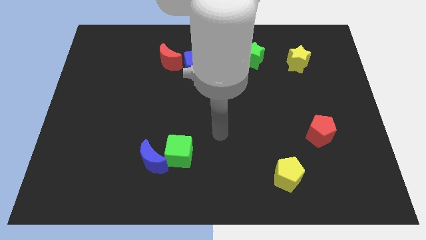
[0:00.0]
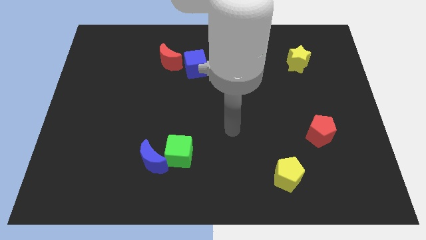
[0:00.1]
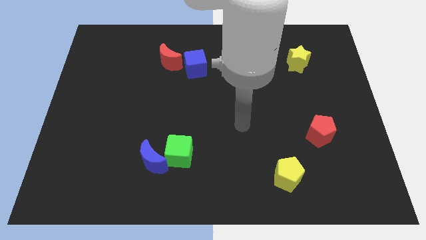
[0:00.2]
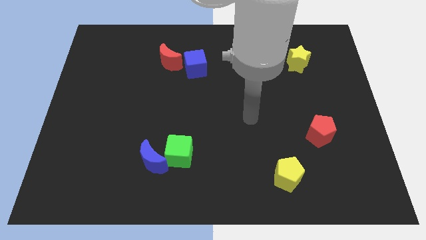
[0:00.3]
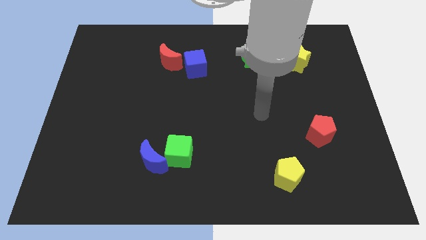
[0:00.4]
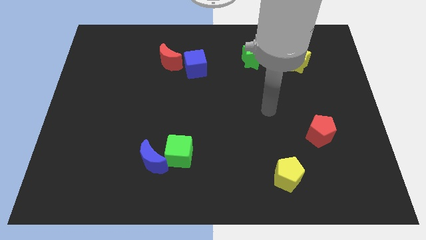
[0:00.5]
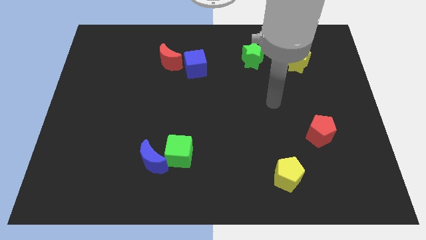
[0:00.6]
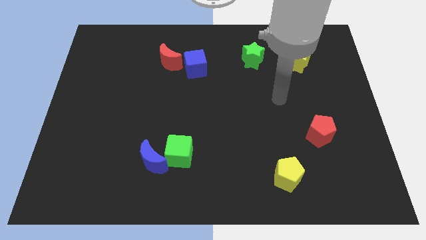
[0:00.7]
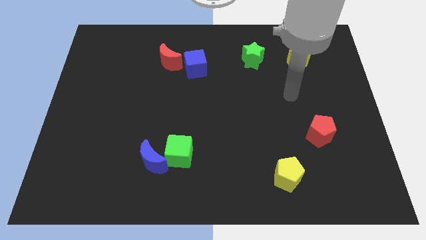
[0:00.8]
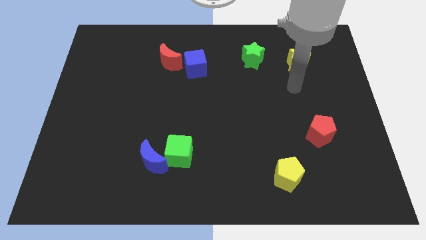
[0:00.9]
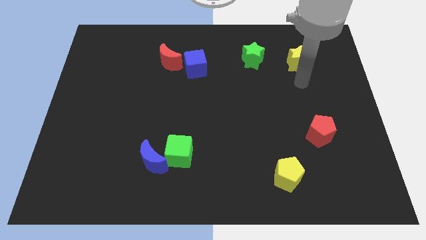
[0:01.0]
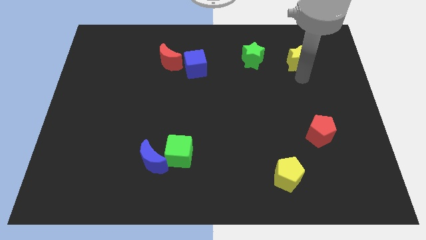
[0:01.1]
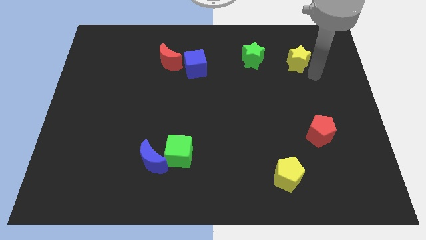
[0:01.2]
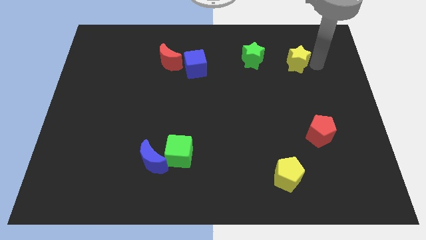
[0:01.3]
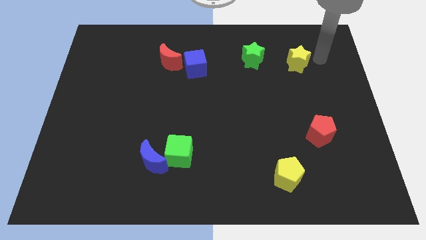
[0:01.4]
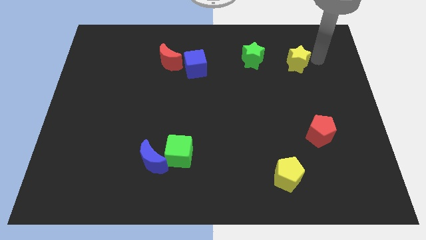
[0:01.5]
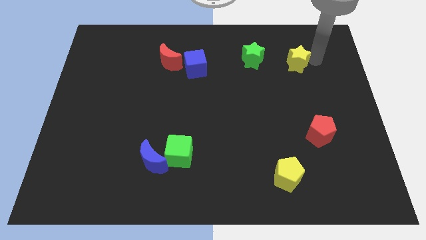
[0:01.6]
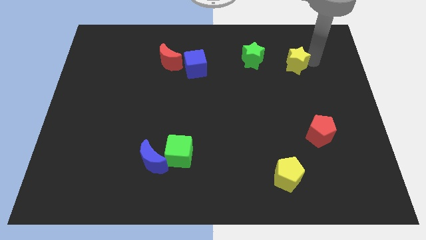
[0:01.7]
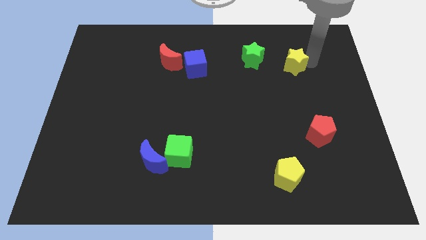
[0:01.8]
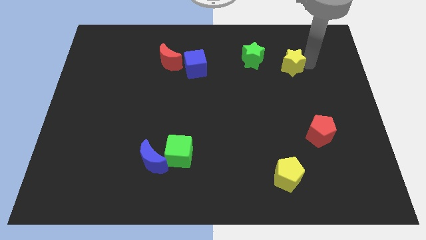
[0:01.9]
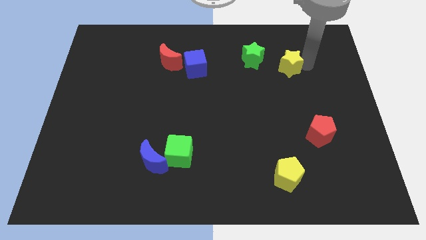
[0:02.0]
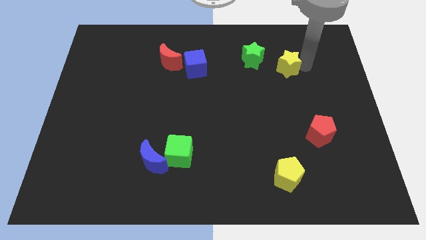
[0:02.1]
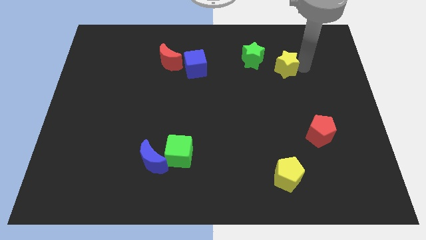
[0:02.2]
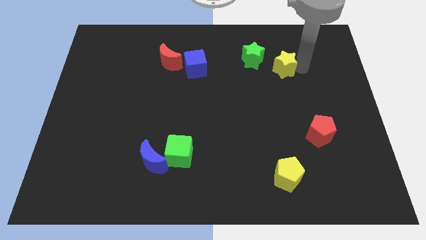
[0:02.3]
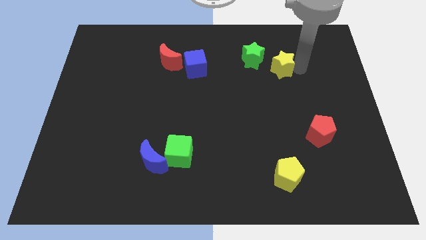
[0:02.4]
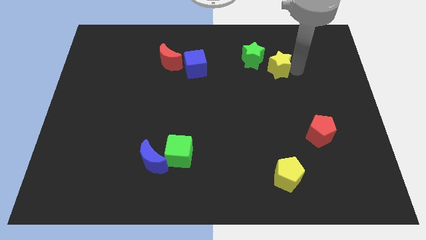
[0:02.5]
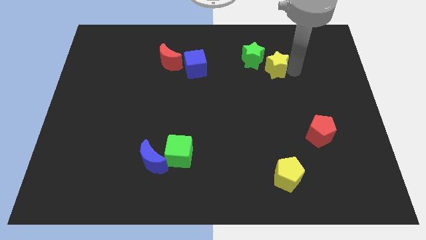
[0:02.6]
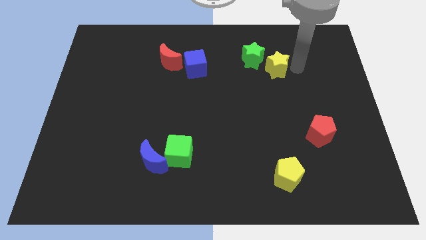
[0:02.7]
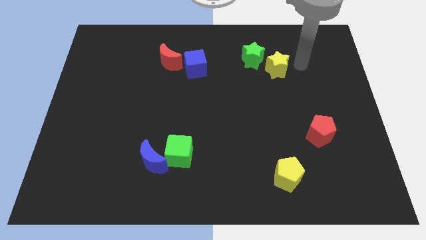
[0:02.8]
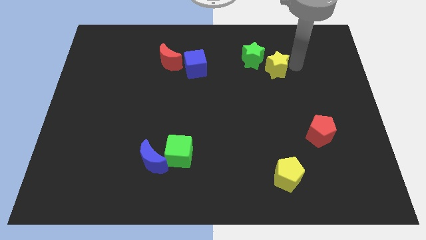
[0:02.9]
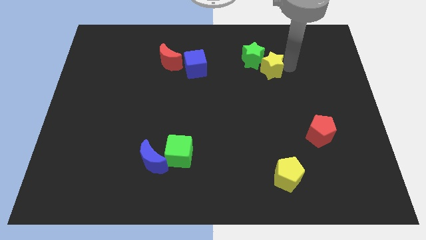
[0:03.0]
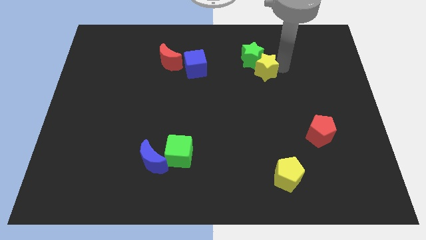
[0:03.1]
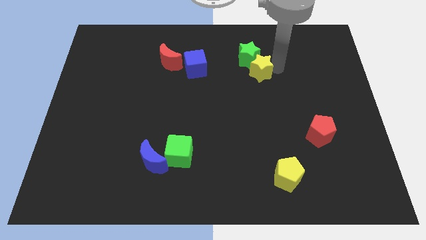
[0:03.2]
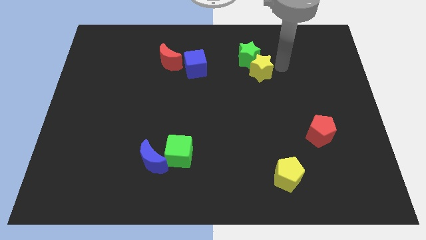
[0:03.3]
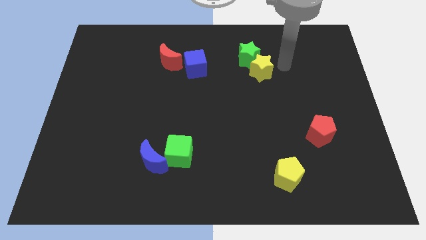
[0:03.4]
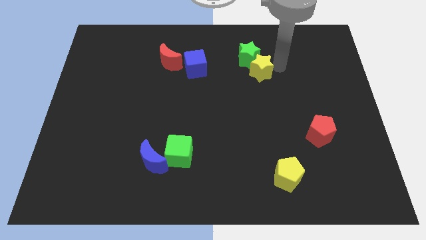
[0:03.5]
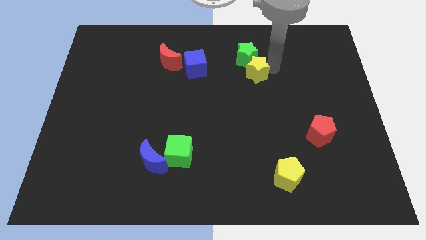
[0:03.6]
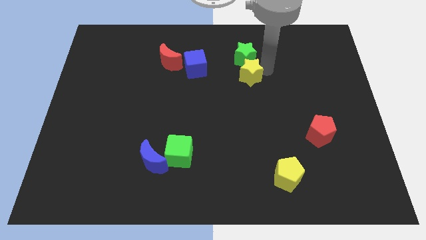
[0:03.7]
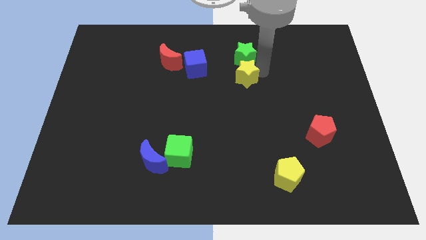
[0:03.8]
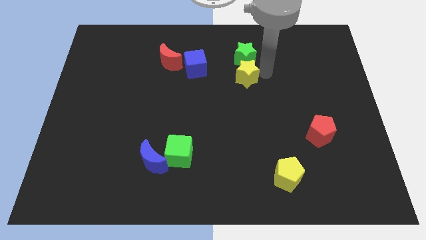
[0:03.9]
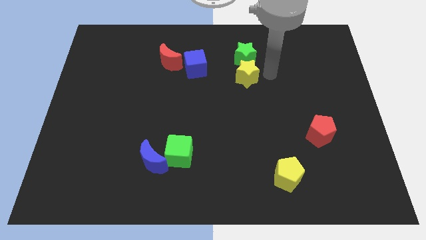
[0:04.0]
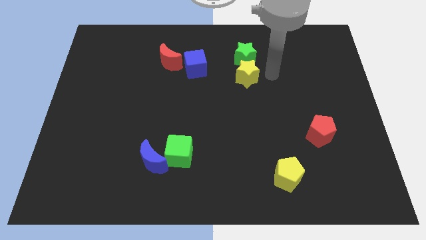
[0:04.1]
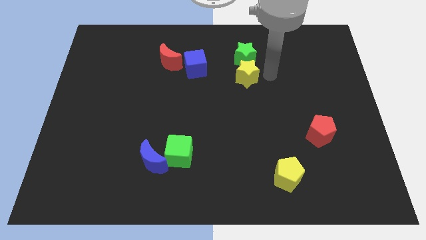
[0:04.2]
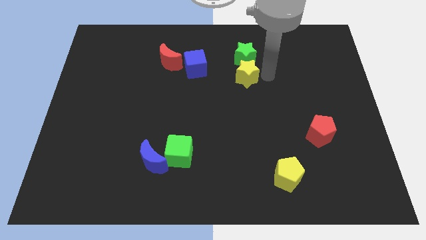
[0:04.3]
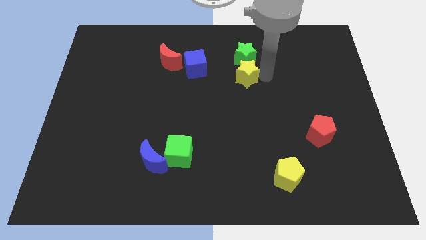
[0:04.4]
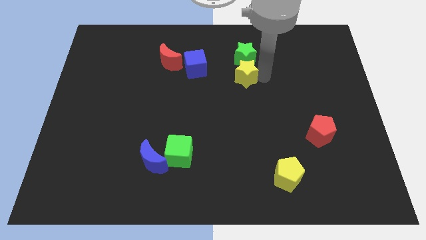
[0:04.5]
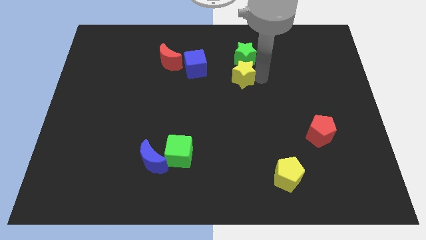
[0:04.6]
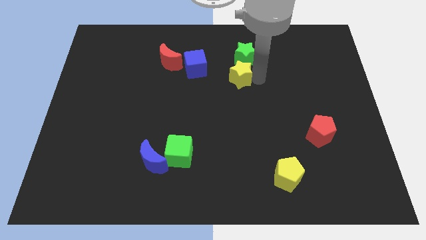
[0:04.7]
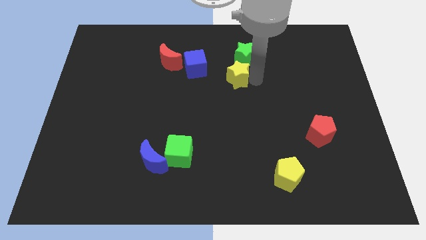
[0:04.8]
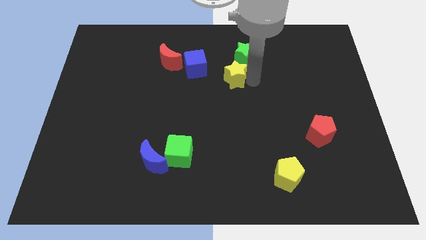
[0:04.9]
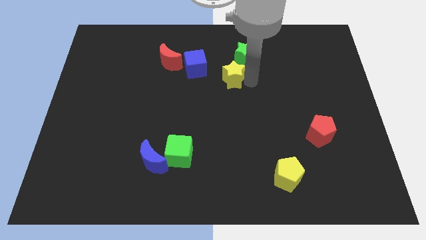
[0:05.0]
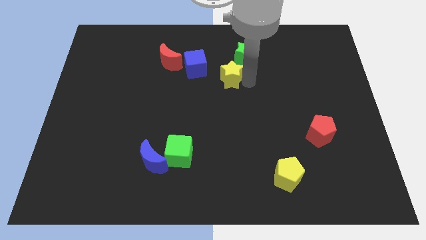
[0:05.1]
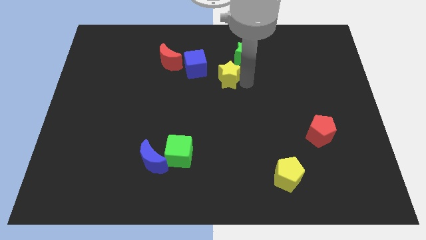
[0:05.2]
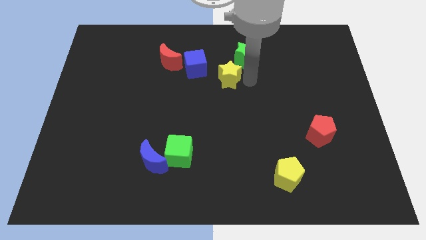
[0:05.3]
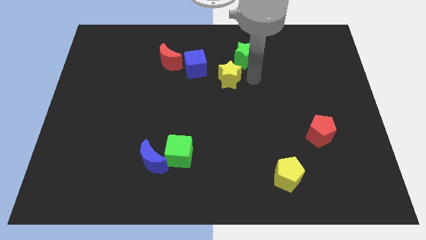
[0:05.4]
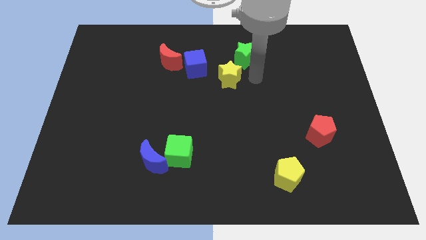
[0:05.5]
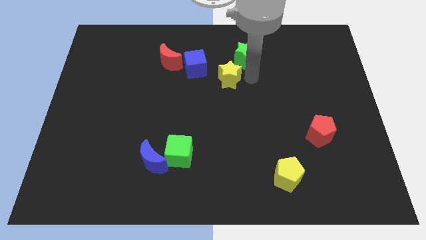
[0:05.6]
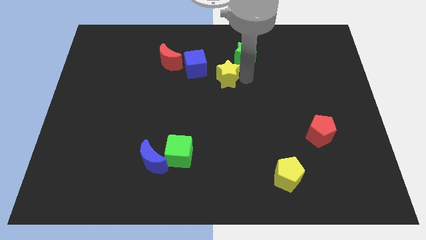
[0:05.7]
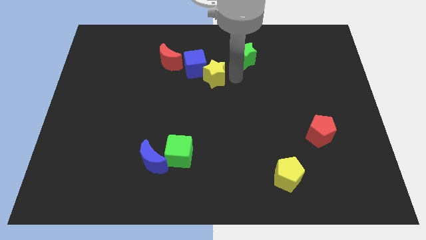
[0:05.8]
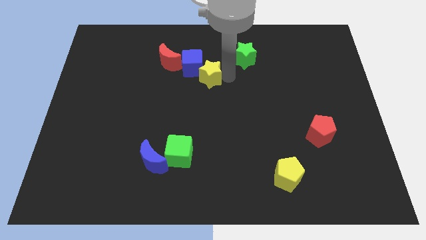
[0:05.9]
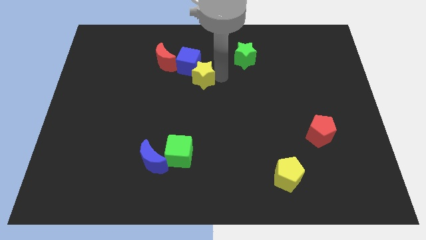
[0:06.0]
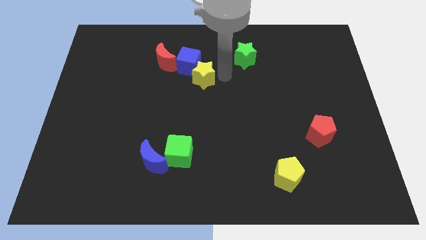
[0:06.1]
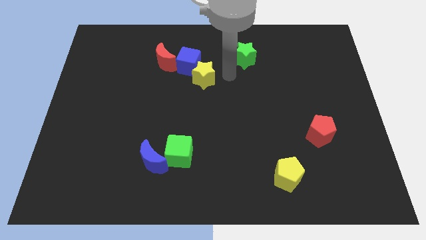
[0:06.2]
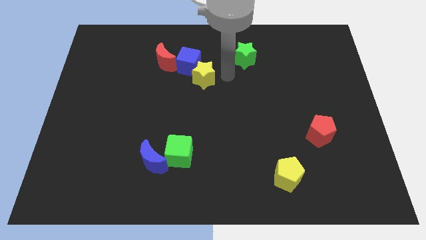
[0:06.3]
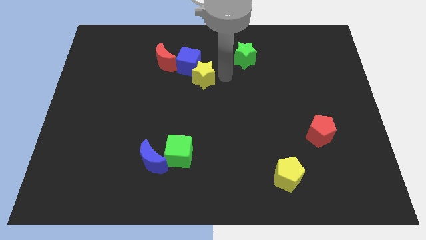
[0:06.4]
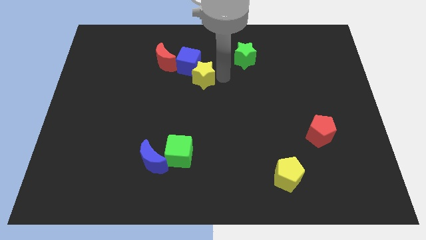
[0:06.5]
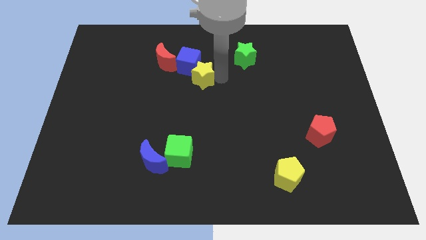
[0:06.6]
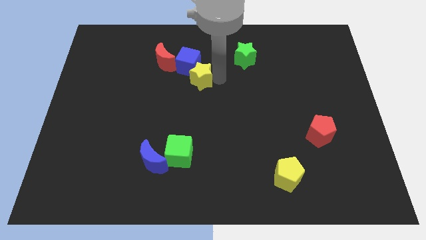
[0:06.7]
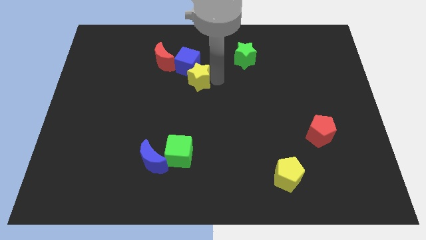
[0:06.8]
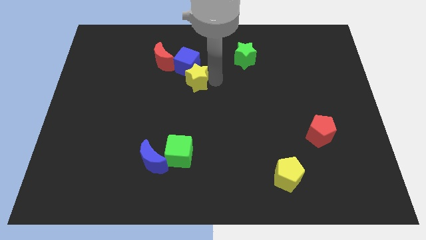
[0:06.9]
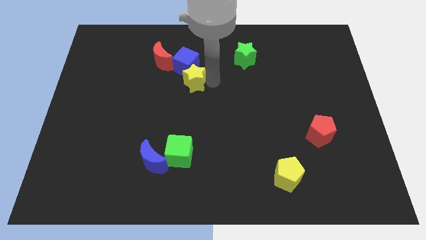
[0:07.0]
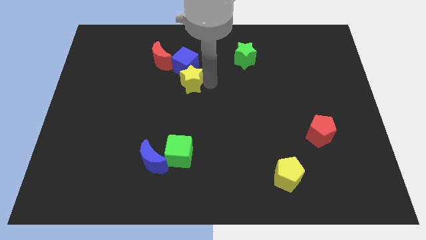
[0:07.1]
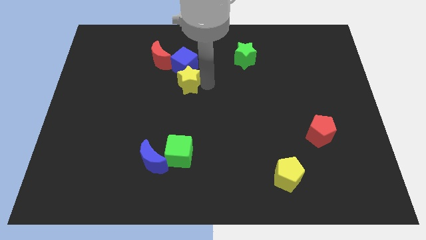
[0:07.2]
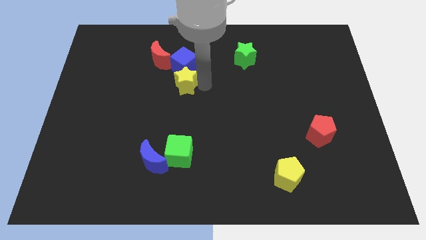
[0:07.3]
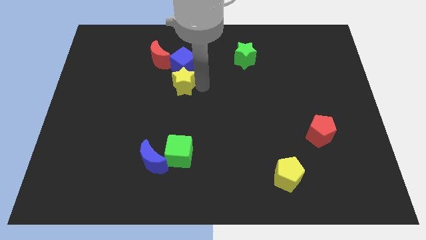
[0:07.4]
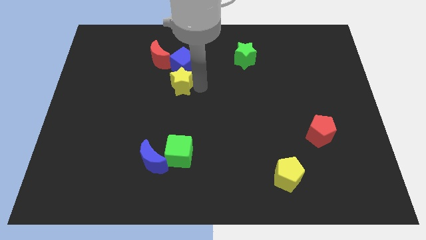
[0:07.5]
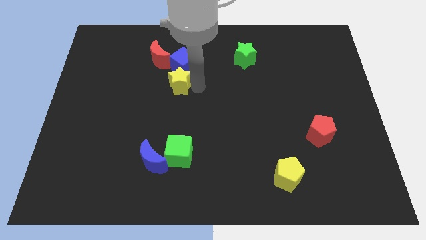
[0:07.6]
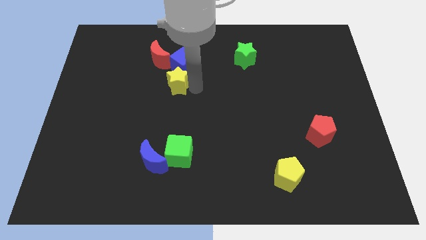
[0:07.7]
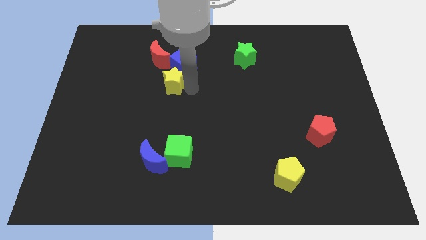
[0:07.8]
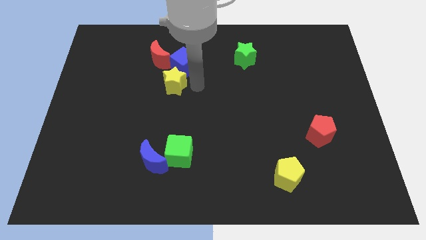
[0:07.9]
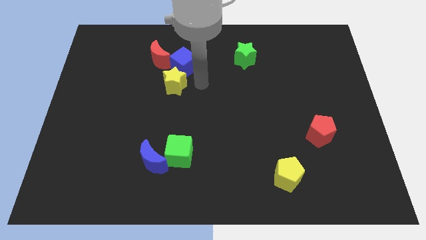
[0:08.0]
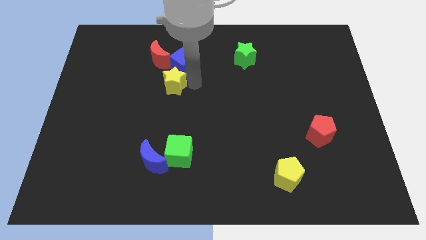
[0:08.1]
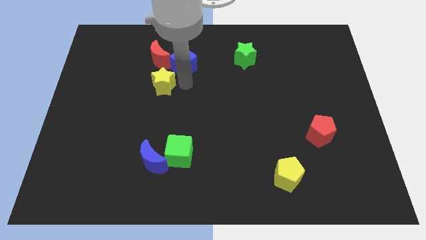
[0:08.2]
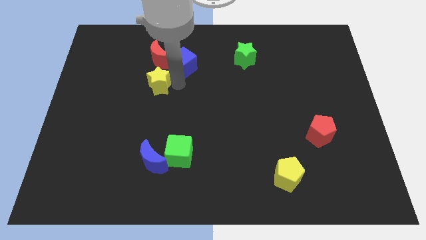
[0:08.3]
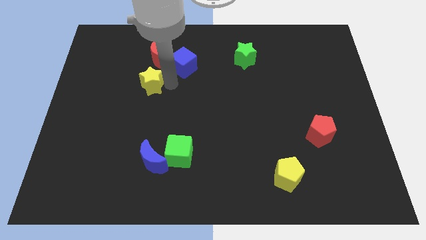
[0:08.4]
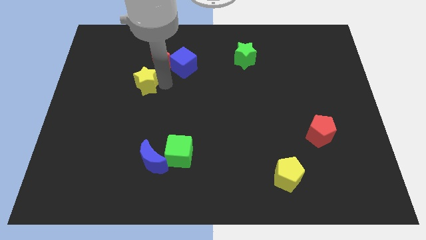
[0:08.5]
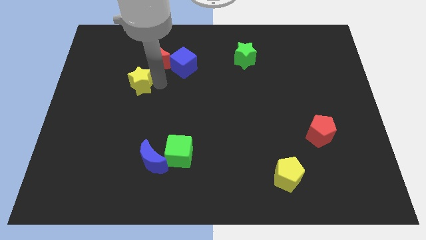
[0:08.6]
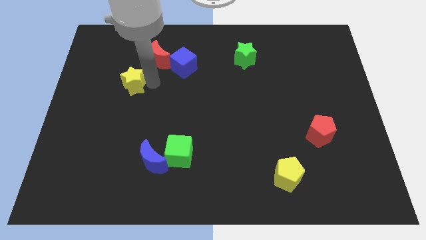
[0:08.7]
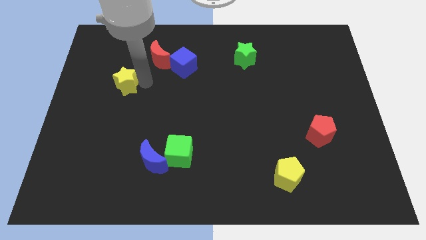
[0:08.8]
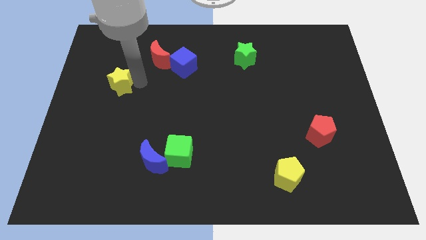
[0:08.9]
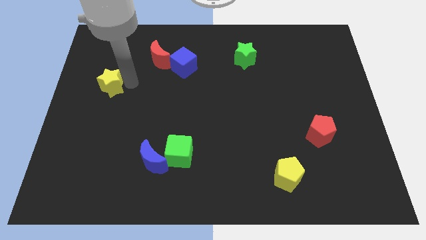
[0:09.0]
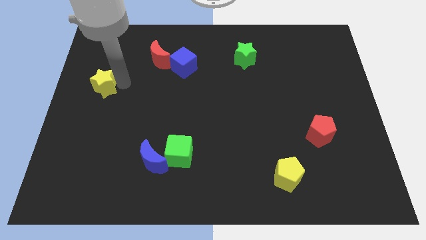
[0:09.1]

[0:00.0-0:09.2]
move the yellow star to the left side of the board
